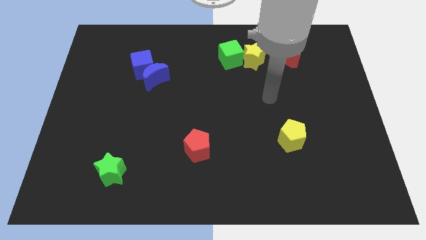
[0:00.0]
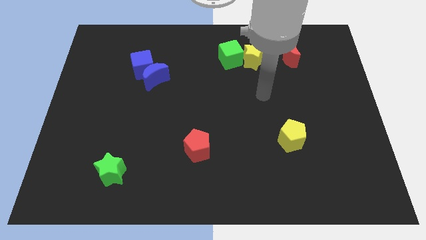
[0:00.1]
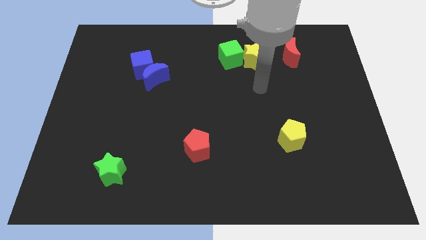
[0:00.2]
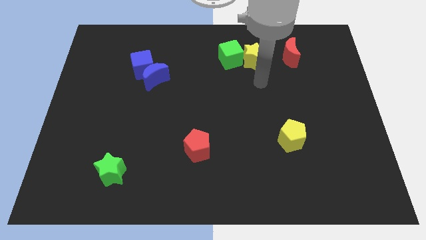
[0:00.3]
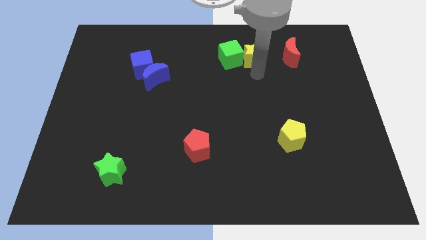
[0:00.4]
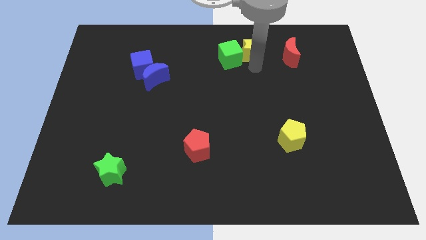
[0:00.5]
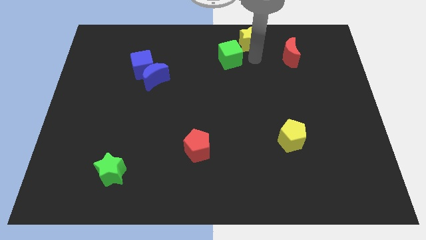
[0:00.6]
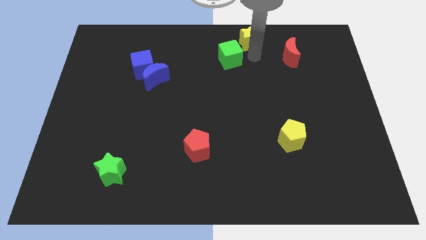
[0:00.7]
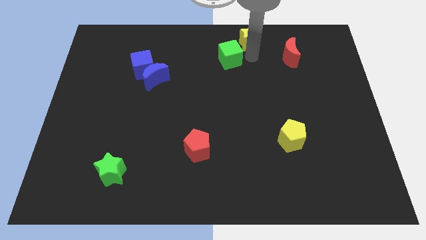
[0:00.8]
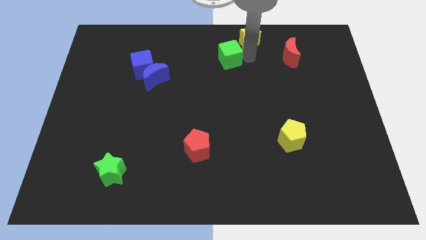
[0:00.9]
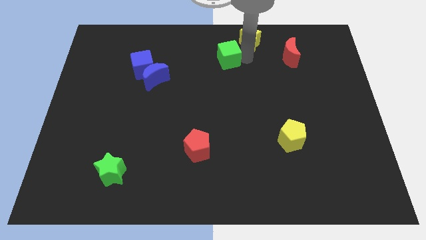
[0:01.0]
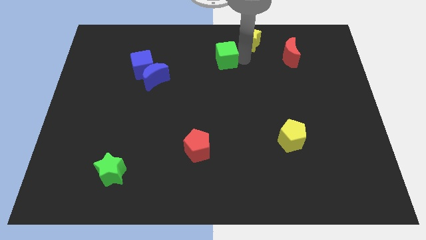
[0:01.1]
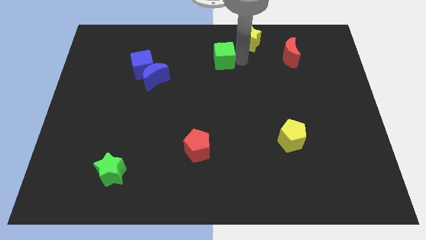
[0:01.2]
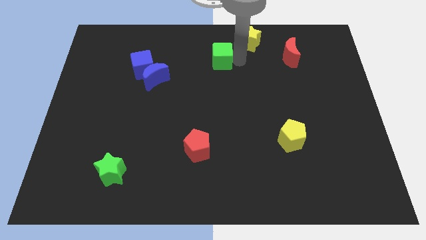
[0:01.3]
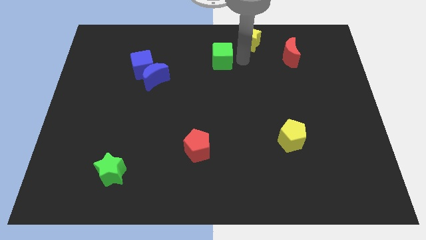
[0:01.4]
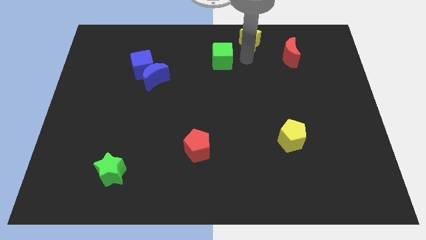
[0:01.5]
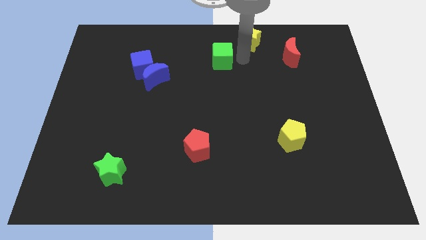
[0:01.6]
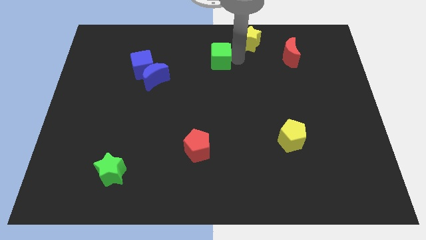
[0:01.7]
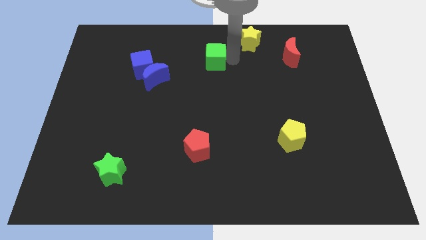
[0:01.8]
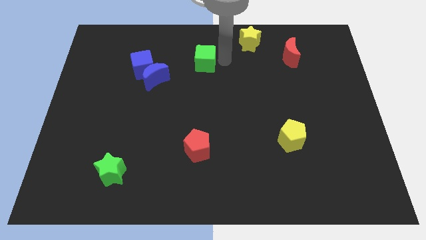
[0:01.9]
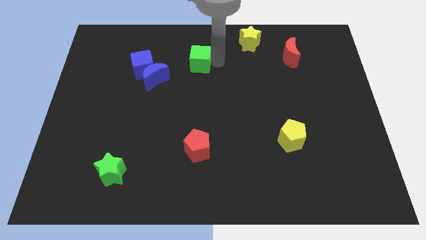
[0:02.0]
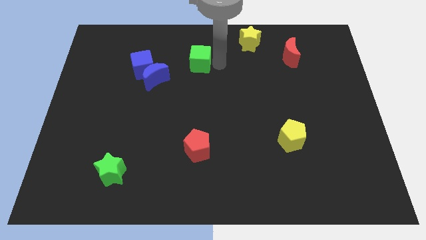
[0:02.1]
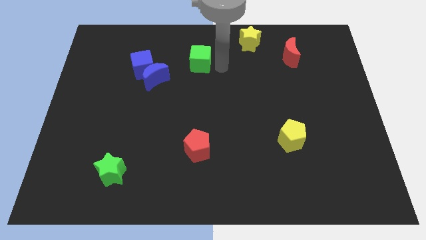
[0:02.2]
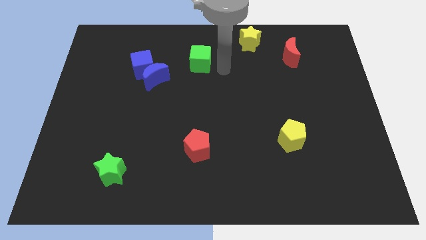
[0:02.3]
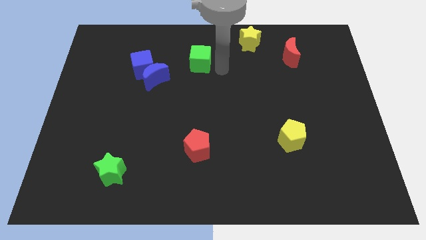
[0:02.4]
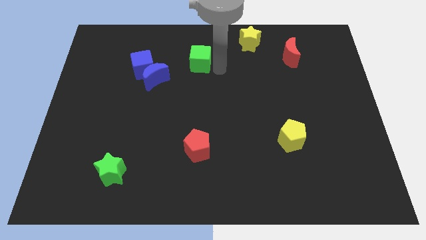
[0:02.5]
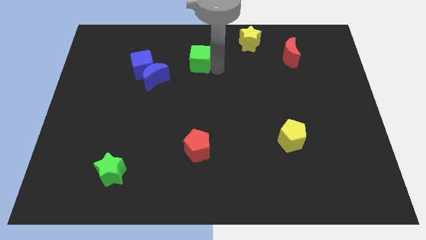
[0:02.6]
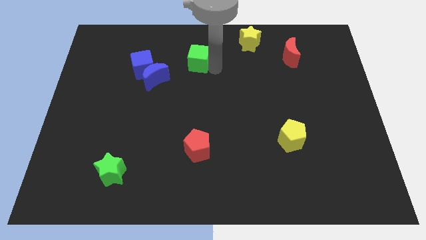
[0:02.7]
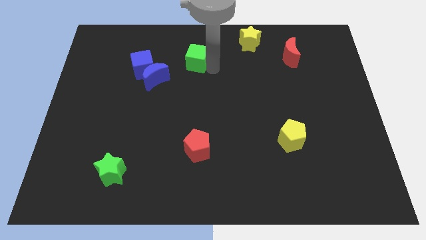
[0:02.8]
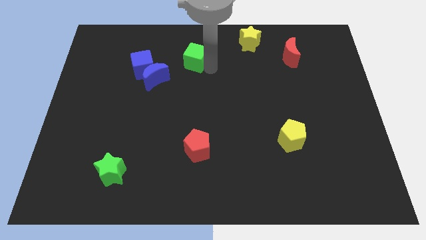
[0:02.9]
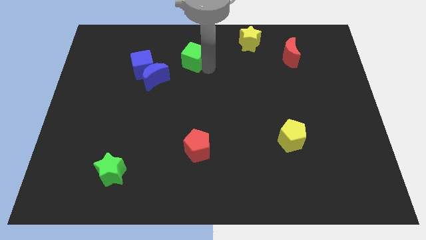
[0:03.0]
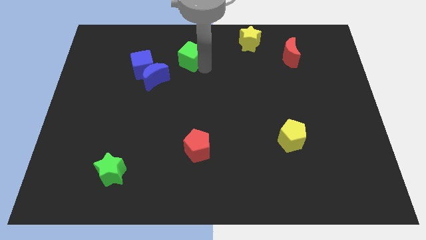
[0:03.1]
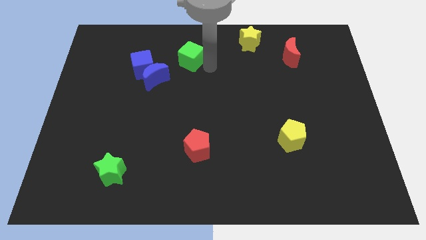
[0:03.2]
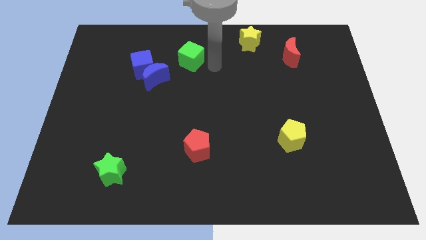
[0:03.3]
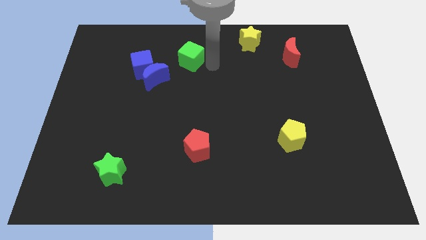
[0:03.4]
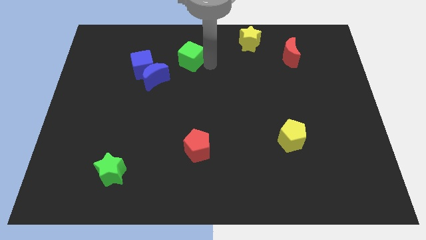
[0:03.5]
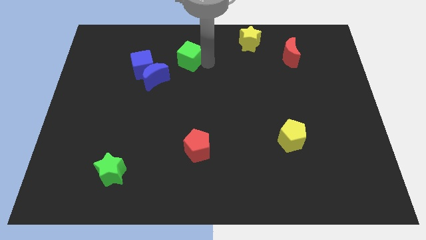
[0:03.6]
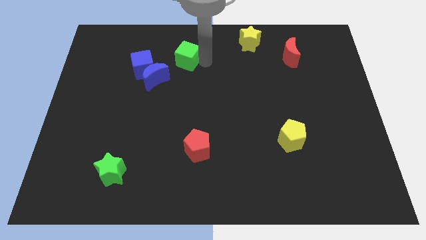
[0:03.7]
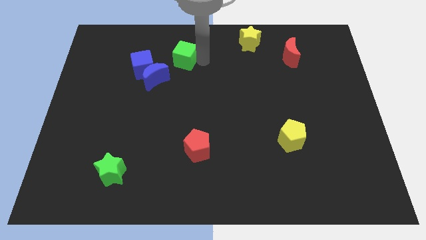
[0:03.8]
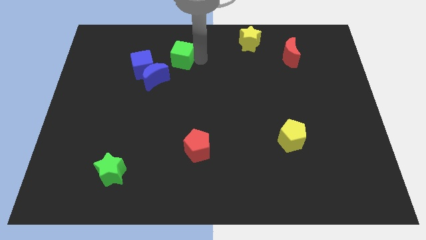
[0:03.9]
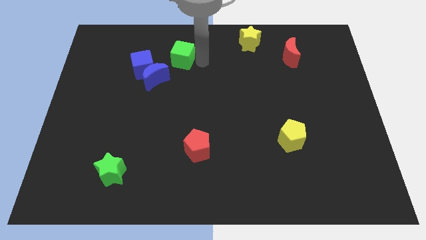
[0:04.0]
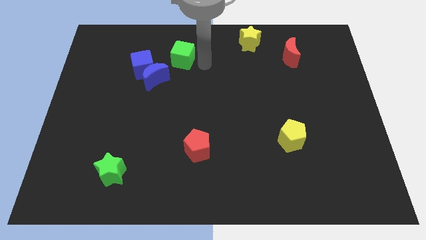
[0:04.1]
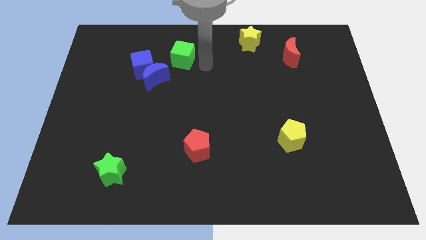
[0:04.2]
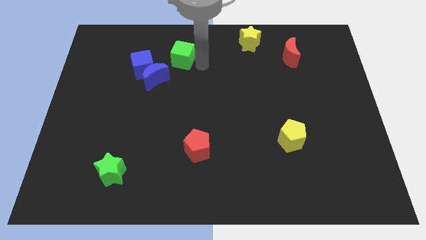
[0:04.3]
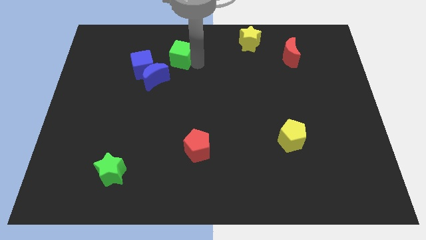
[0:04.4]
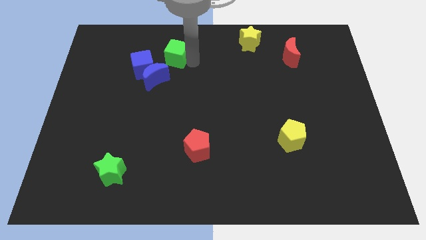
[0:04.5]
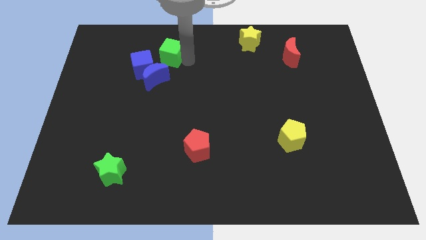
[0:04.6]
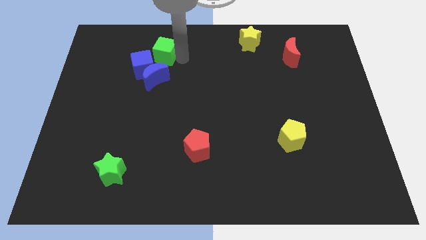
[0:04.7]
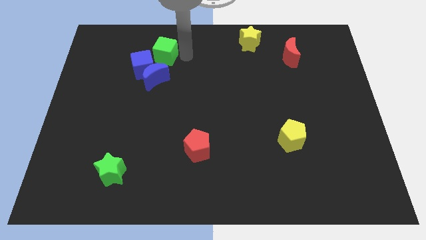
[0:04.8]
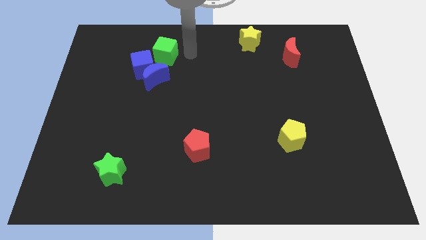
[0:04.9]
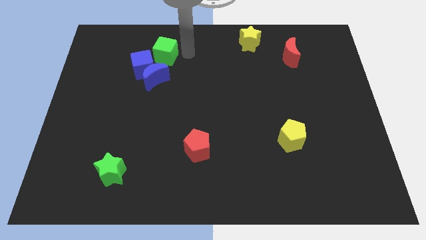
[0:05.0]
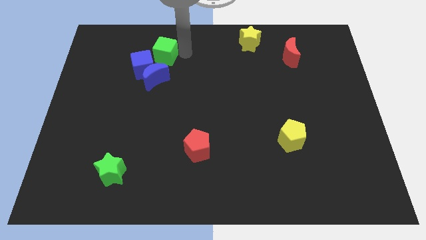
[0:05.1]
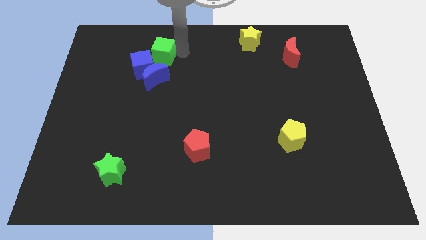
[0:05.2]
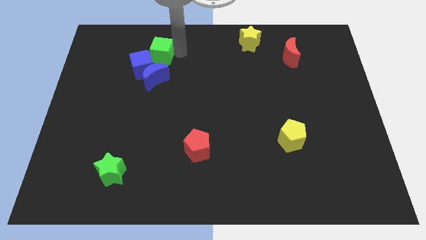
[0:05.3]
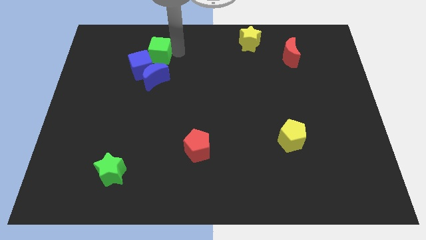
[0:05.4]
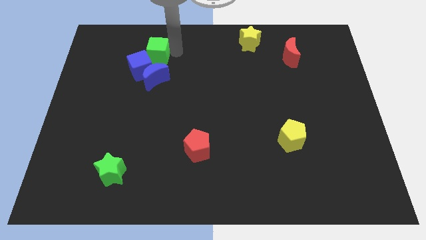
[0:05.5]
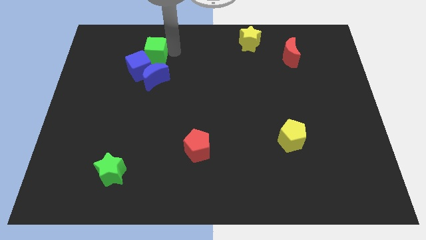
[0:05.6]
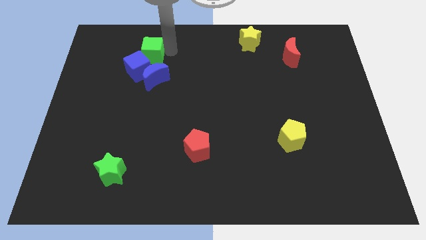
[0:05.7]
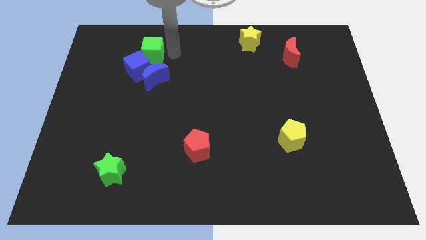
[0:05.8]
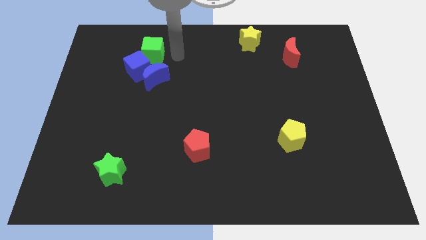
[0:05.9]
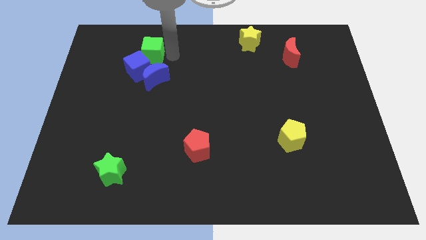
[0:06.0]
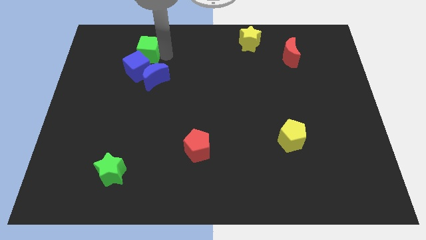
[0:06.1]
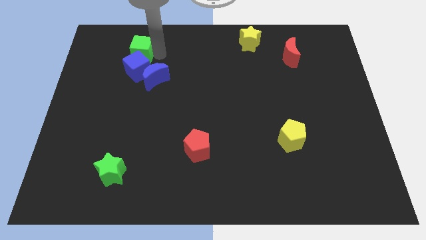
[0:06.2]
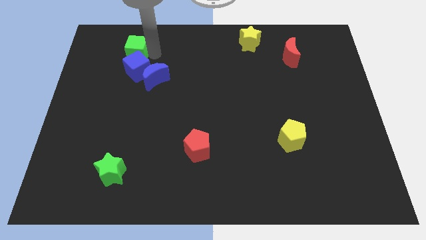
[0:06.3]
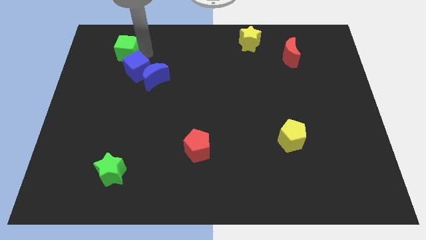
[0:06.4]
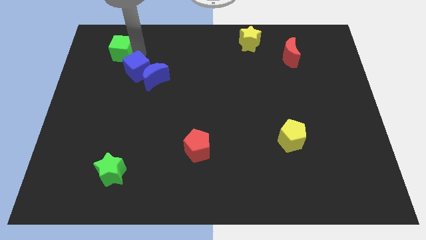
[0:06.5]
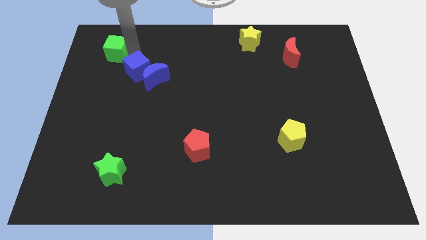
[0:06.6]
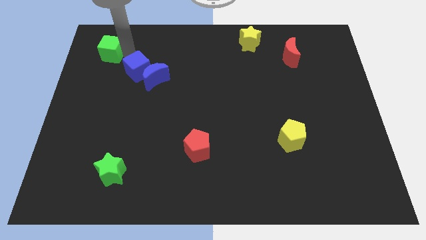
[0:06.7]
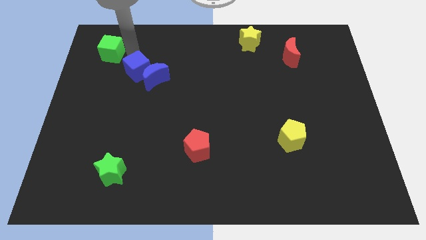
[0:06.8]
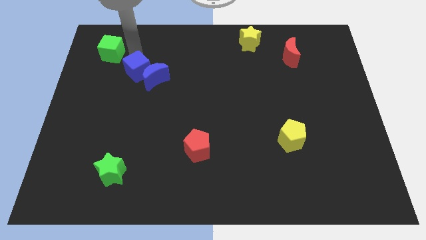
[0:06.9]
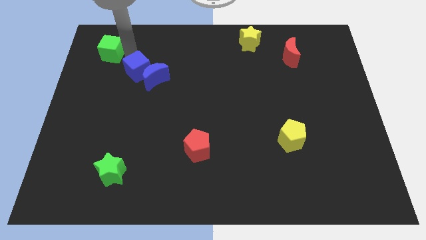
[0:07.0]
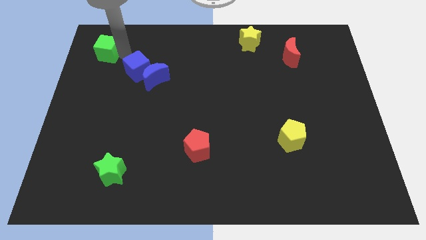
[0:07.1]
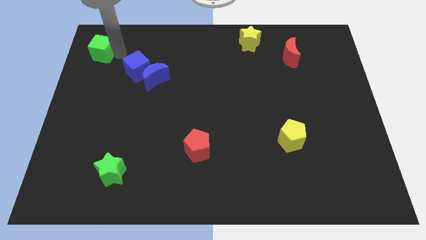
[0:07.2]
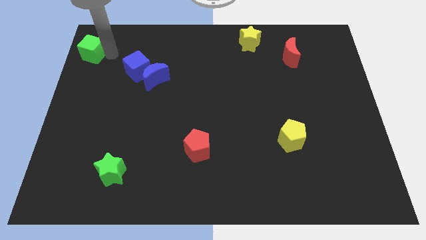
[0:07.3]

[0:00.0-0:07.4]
push the green cube to the top left corner
